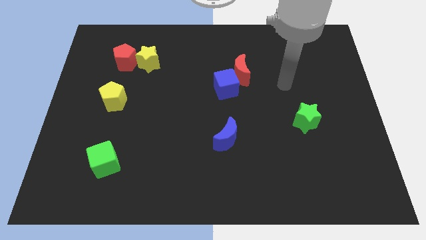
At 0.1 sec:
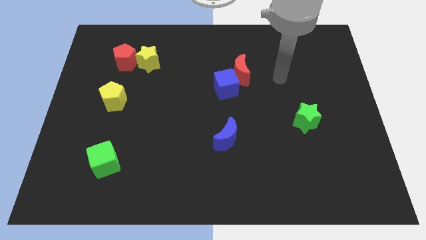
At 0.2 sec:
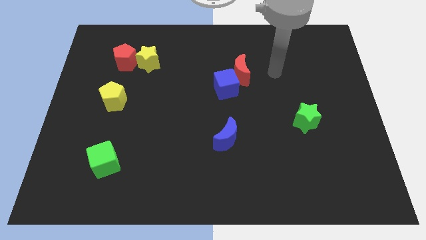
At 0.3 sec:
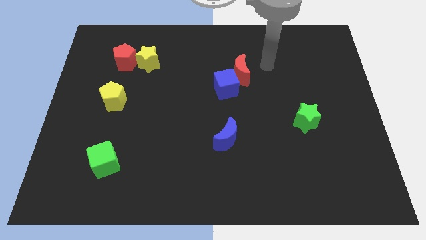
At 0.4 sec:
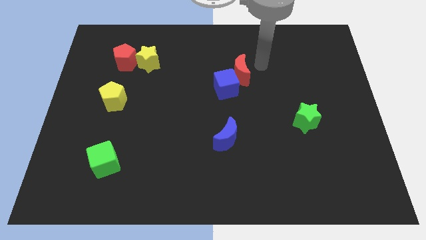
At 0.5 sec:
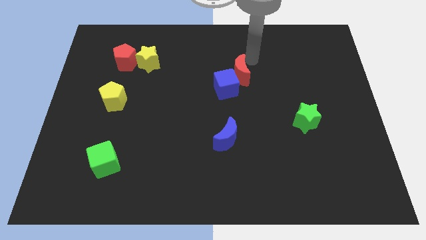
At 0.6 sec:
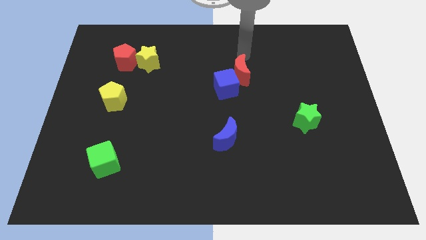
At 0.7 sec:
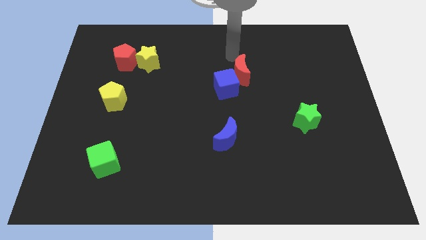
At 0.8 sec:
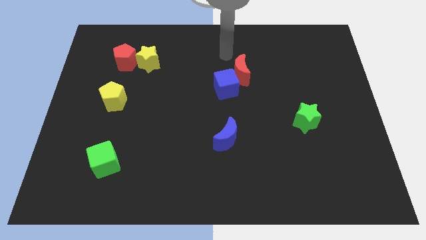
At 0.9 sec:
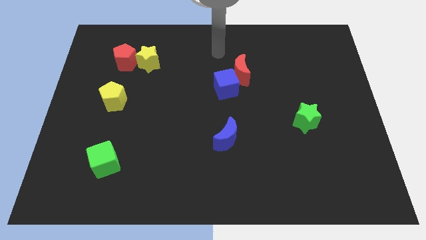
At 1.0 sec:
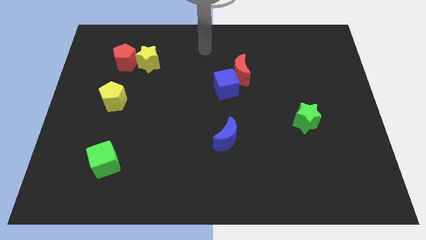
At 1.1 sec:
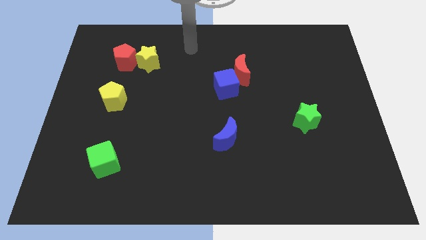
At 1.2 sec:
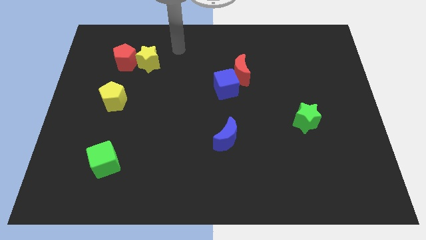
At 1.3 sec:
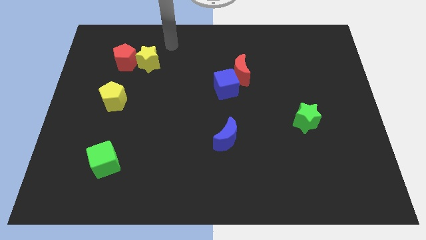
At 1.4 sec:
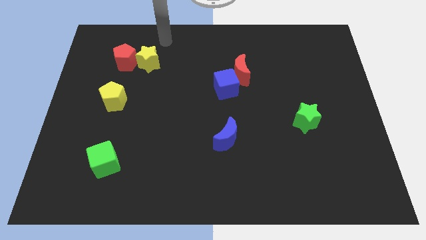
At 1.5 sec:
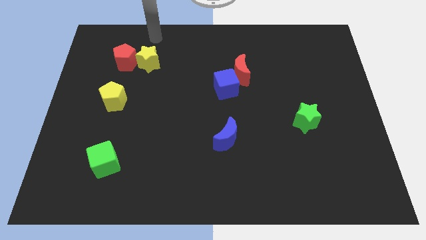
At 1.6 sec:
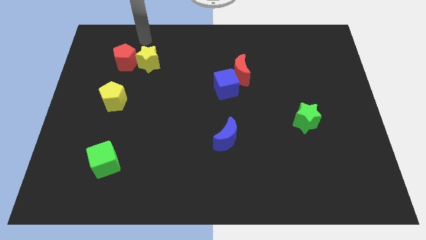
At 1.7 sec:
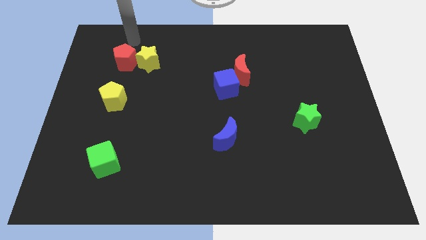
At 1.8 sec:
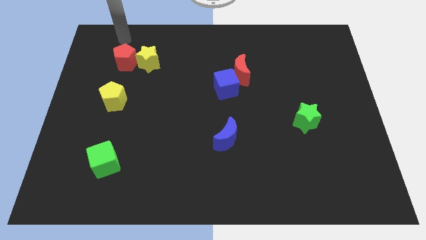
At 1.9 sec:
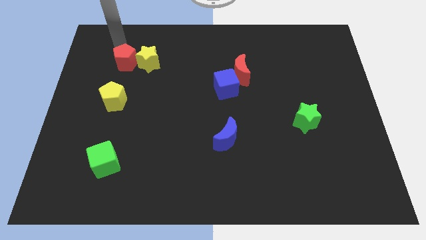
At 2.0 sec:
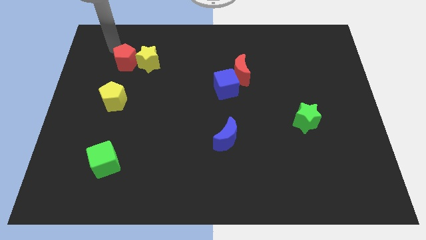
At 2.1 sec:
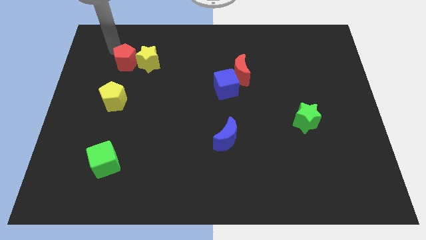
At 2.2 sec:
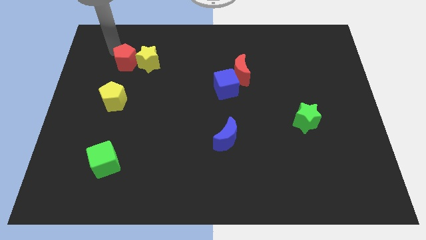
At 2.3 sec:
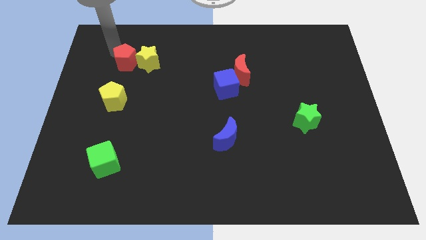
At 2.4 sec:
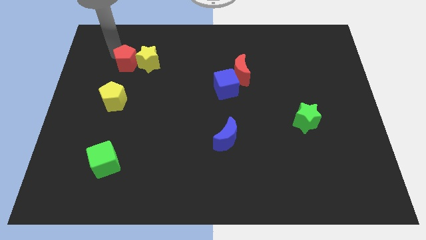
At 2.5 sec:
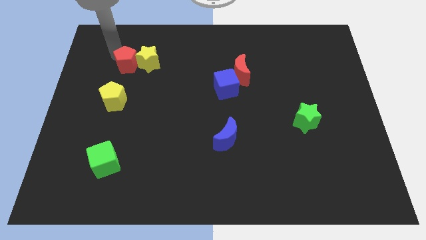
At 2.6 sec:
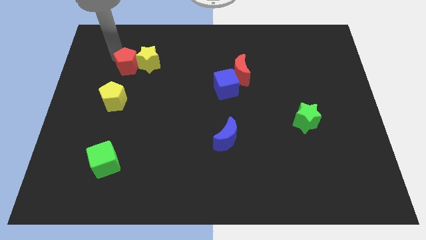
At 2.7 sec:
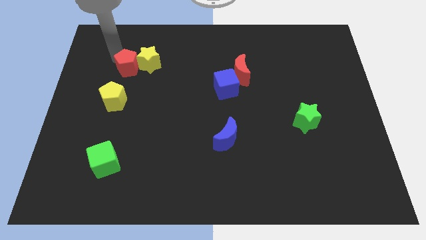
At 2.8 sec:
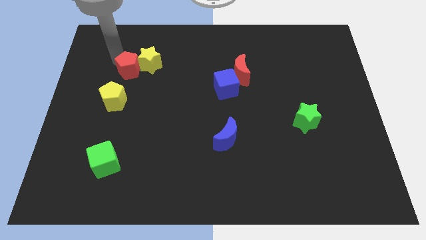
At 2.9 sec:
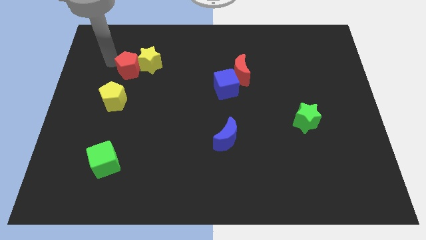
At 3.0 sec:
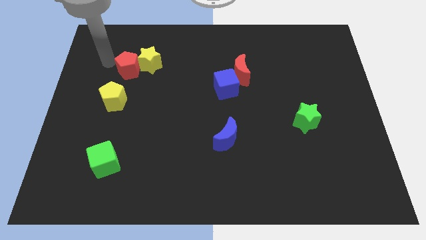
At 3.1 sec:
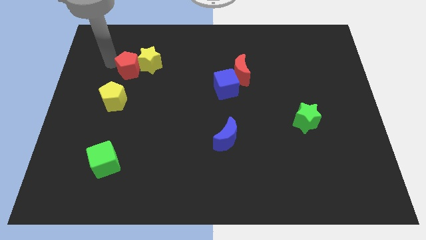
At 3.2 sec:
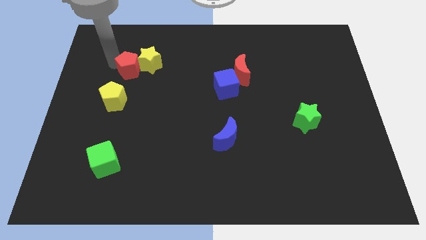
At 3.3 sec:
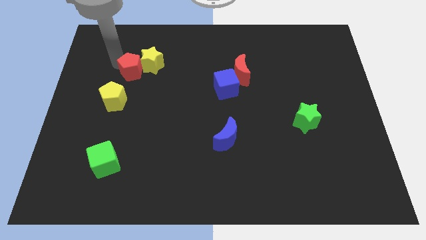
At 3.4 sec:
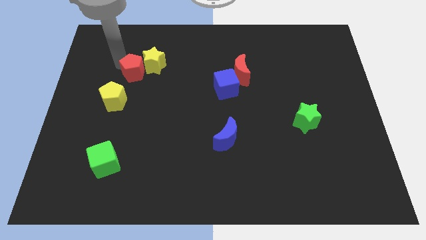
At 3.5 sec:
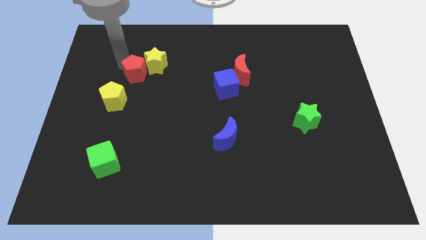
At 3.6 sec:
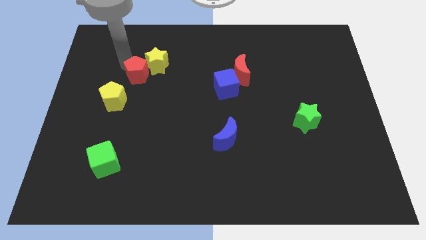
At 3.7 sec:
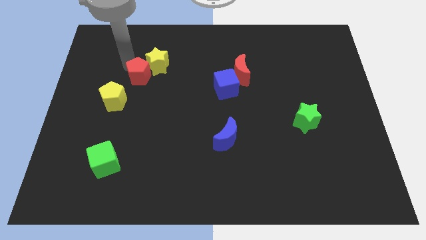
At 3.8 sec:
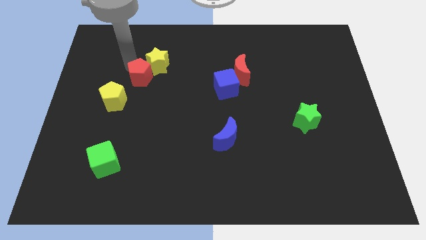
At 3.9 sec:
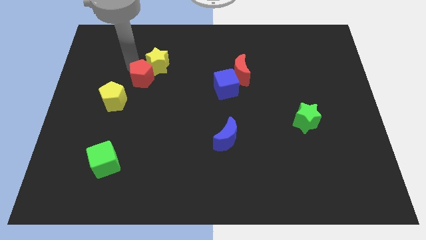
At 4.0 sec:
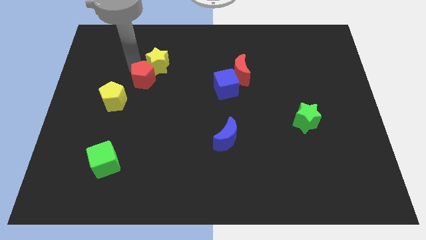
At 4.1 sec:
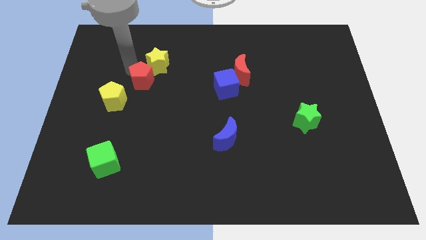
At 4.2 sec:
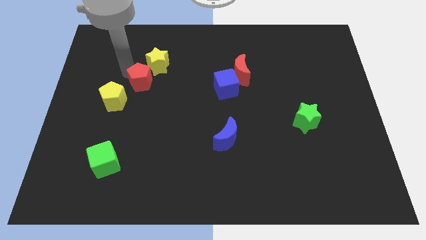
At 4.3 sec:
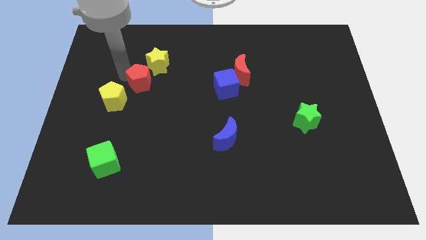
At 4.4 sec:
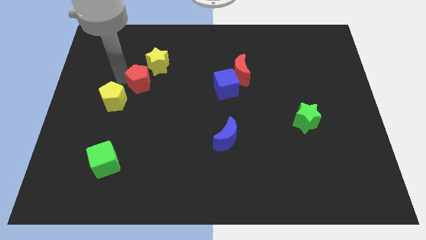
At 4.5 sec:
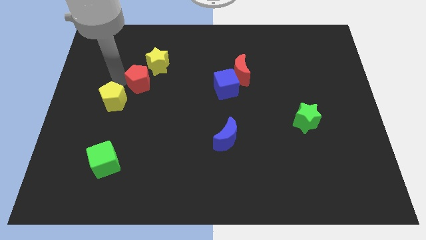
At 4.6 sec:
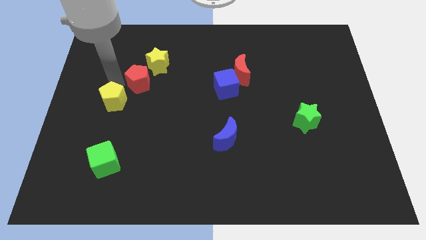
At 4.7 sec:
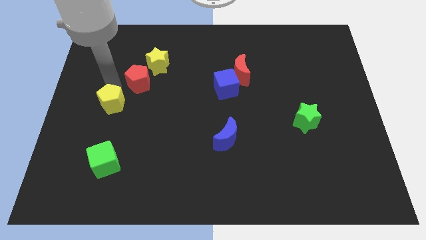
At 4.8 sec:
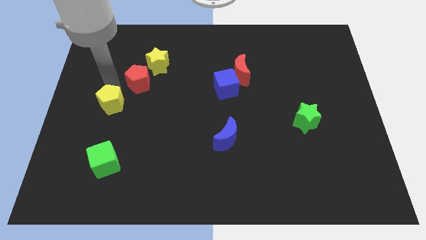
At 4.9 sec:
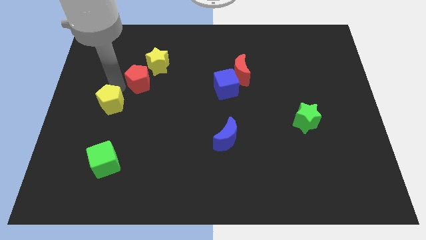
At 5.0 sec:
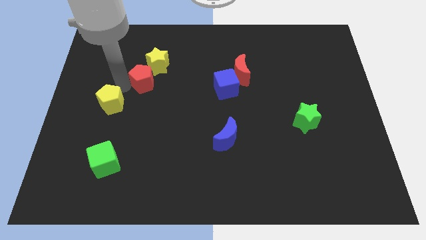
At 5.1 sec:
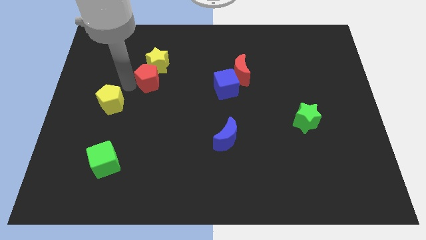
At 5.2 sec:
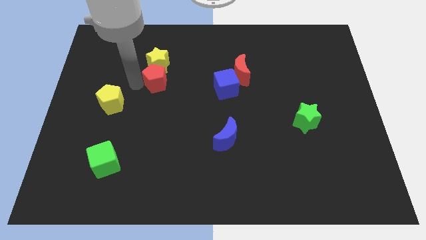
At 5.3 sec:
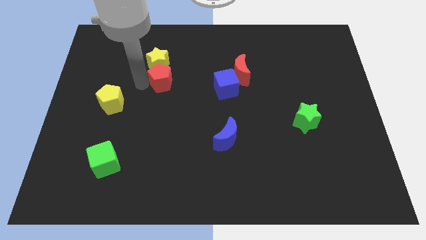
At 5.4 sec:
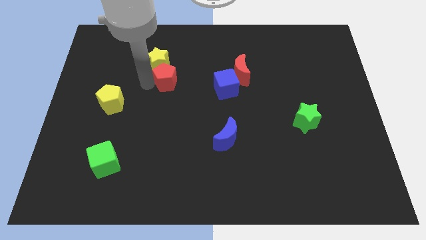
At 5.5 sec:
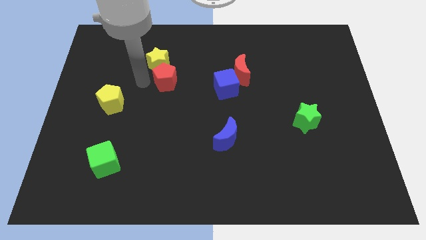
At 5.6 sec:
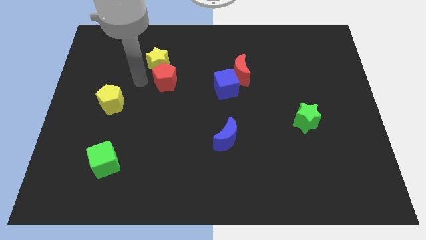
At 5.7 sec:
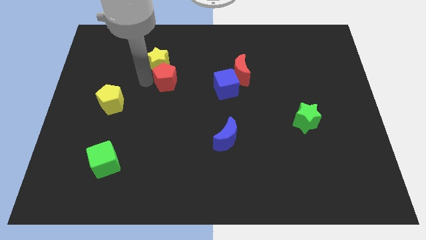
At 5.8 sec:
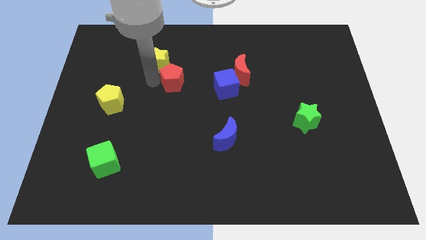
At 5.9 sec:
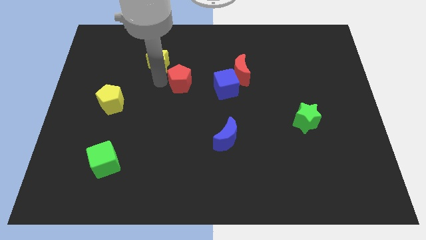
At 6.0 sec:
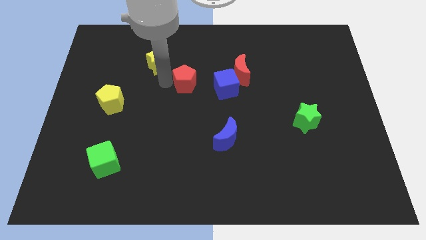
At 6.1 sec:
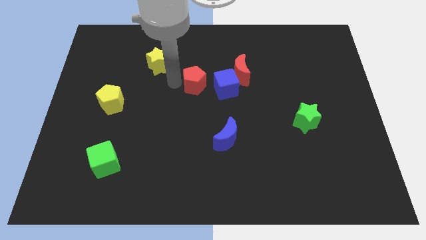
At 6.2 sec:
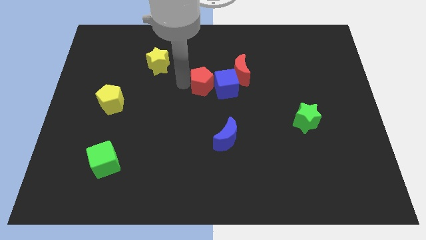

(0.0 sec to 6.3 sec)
push the red pentagon close to the blue cube

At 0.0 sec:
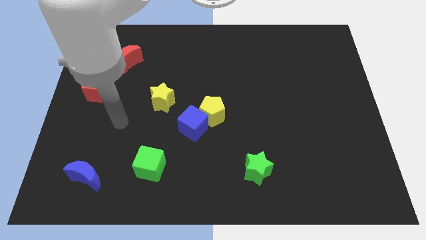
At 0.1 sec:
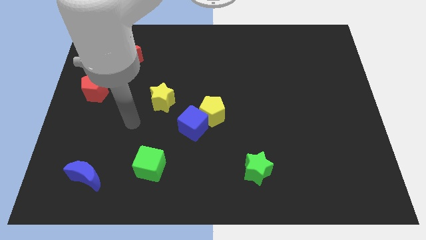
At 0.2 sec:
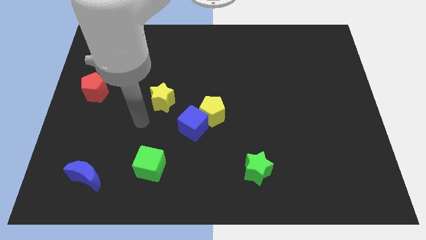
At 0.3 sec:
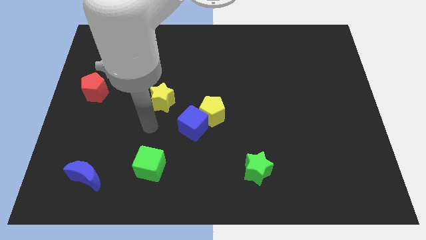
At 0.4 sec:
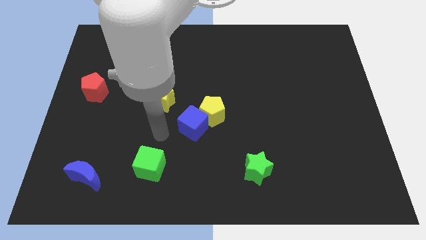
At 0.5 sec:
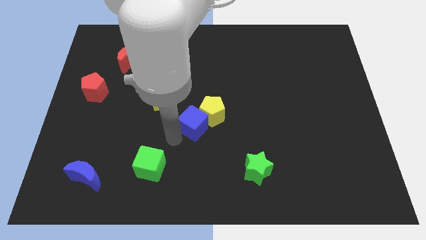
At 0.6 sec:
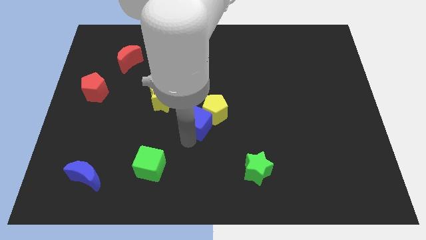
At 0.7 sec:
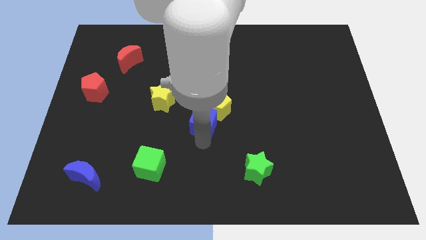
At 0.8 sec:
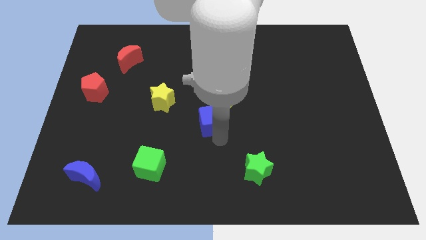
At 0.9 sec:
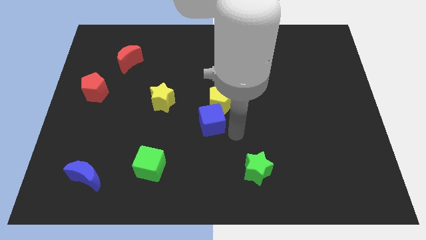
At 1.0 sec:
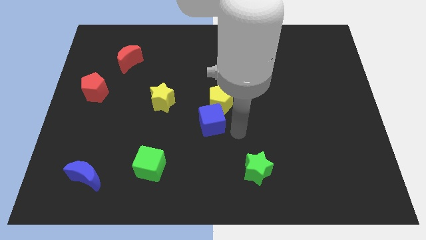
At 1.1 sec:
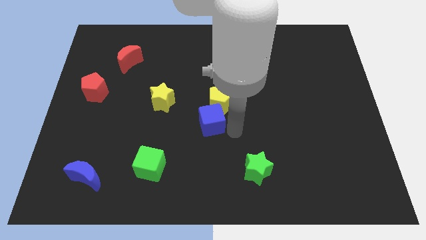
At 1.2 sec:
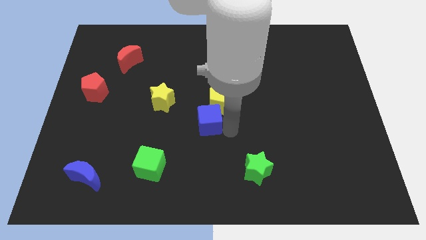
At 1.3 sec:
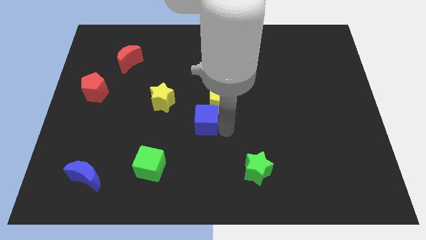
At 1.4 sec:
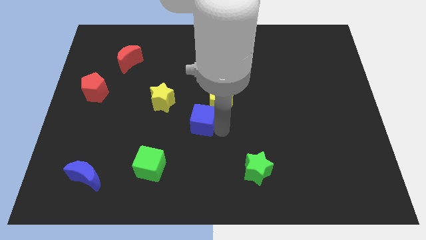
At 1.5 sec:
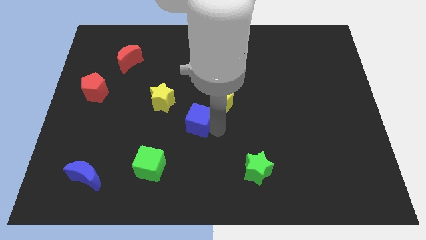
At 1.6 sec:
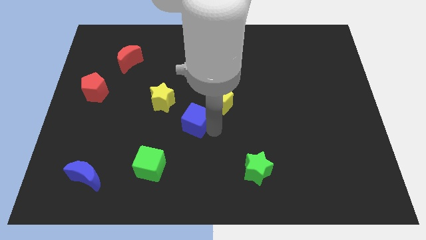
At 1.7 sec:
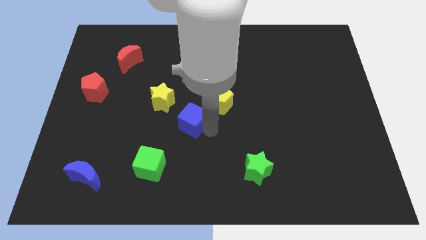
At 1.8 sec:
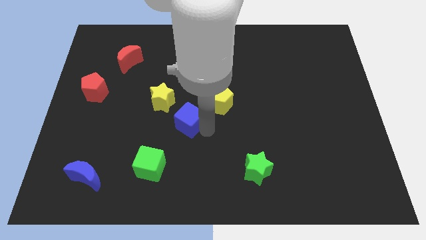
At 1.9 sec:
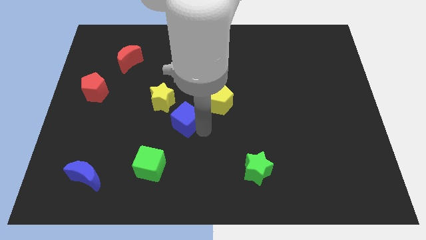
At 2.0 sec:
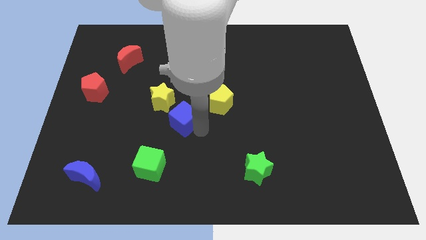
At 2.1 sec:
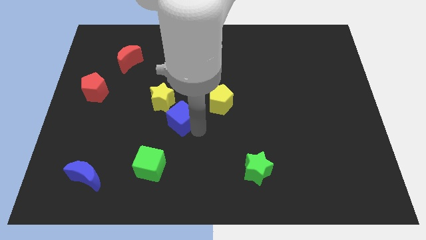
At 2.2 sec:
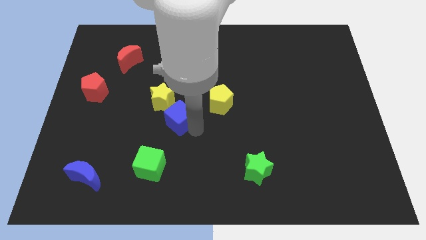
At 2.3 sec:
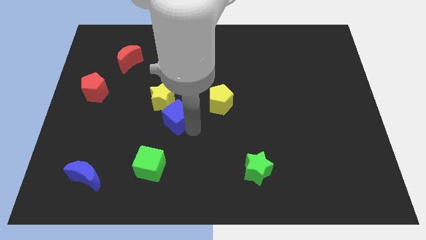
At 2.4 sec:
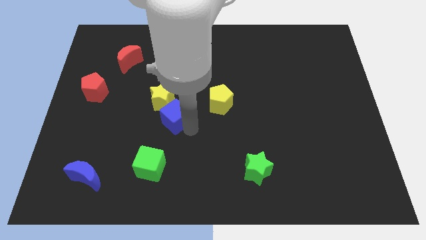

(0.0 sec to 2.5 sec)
slide the blue cube next to the yellow star
